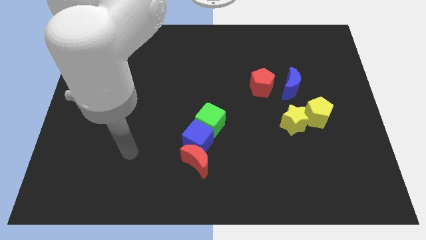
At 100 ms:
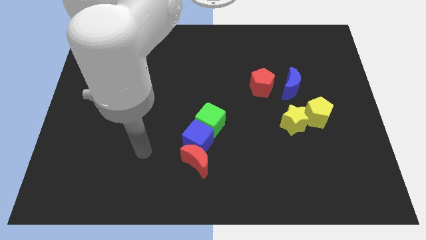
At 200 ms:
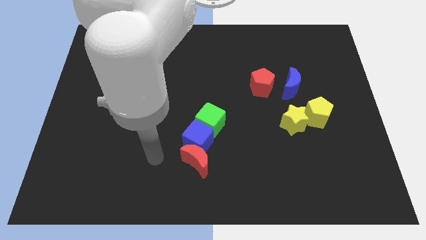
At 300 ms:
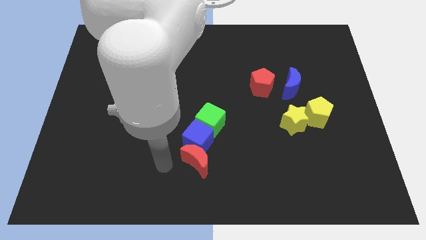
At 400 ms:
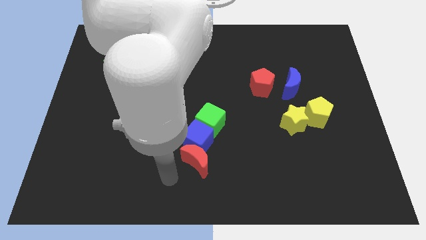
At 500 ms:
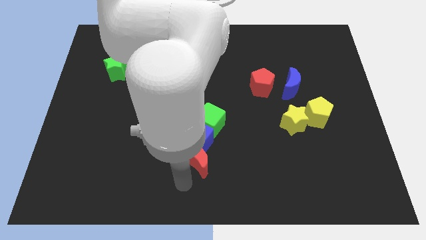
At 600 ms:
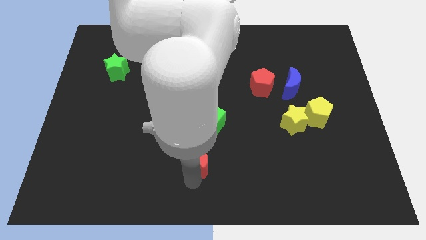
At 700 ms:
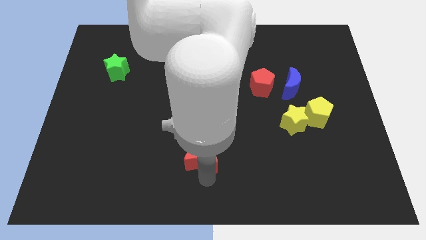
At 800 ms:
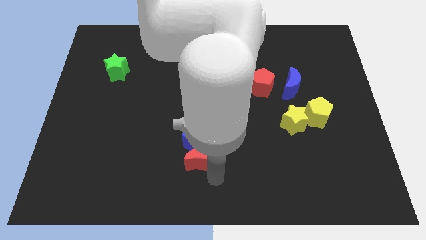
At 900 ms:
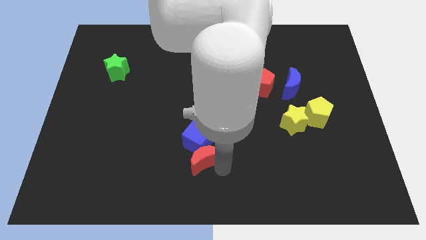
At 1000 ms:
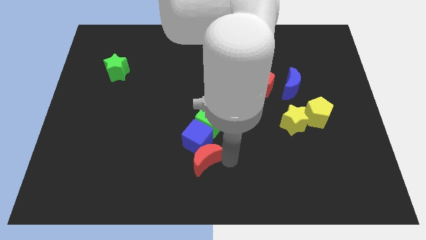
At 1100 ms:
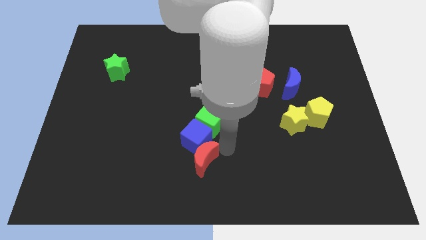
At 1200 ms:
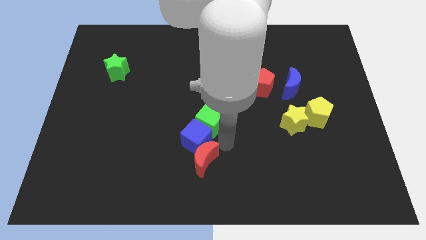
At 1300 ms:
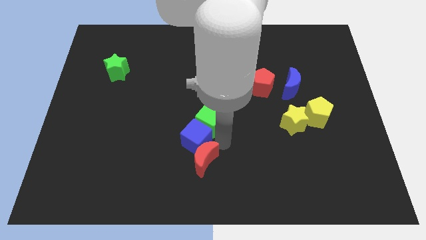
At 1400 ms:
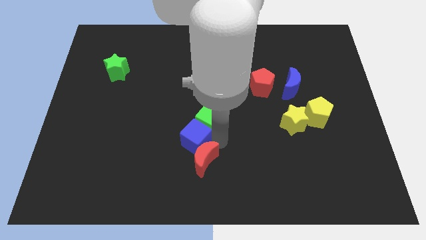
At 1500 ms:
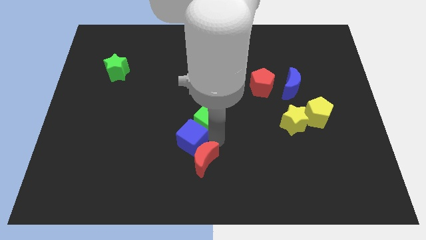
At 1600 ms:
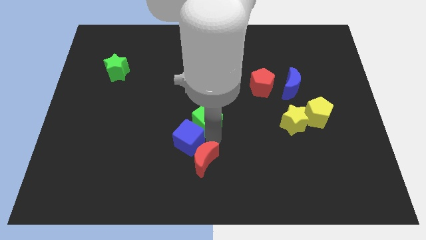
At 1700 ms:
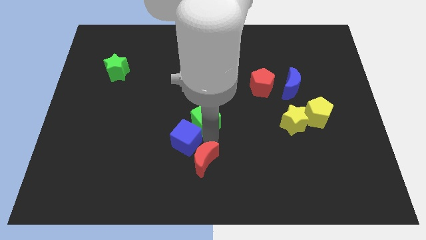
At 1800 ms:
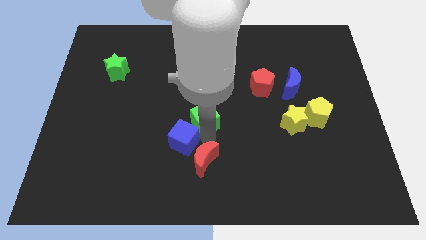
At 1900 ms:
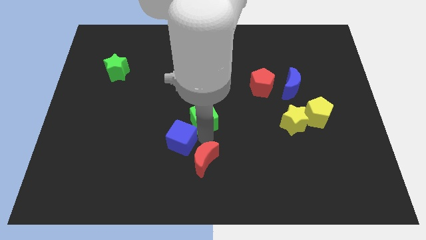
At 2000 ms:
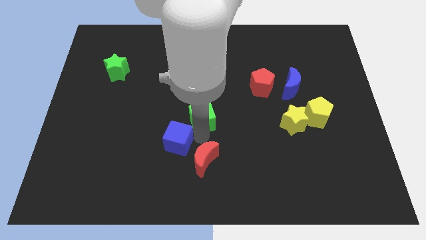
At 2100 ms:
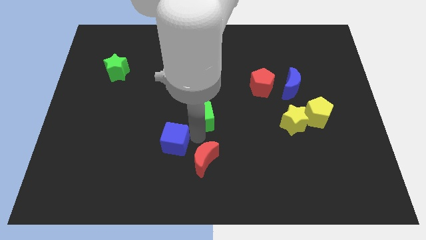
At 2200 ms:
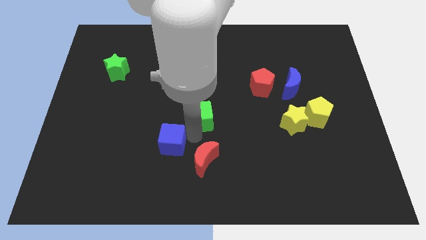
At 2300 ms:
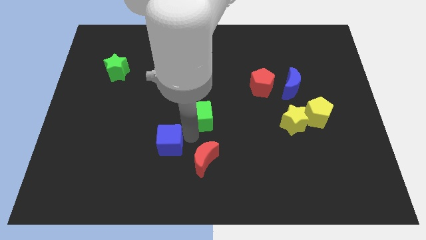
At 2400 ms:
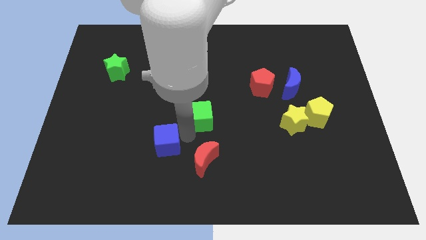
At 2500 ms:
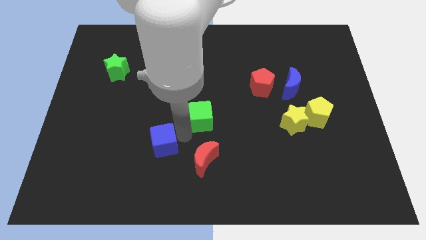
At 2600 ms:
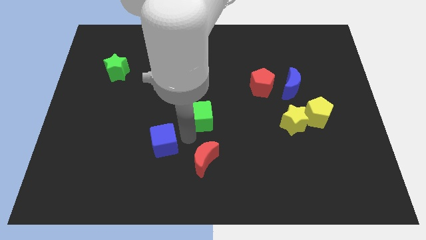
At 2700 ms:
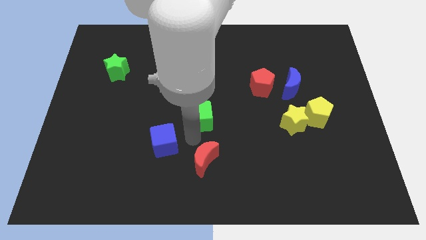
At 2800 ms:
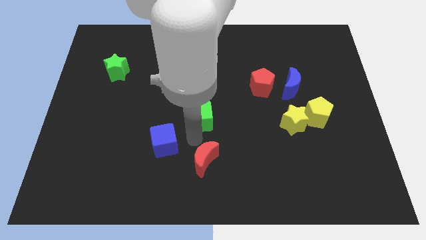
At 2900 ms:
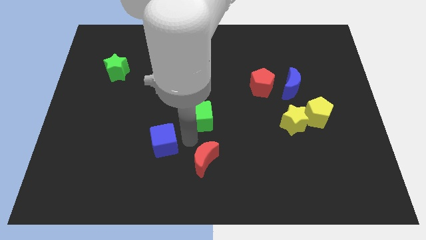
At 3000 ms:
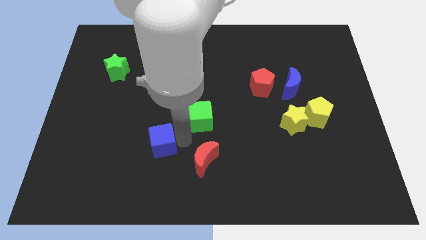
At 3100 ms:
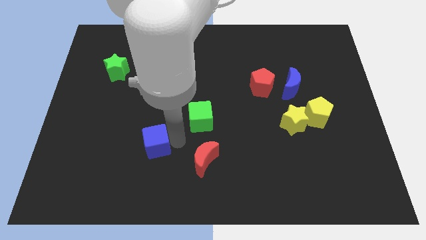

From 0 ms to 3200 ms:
move the blue cube away from the red moon and green cube

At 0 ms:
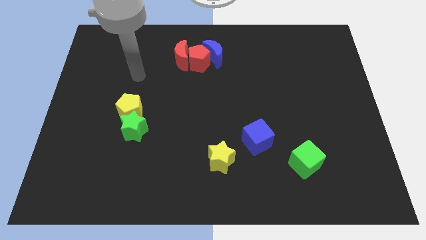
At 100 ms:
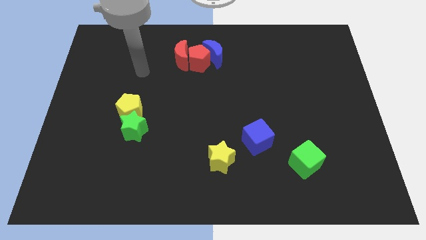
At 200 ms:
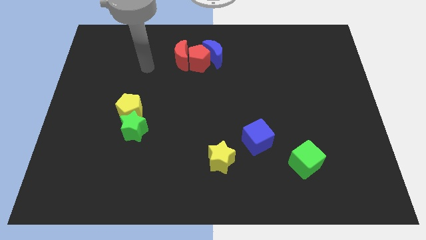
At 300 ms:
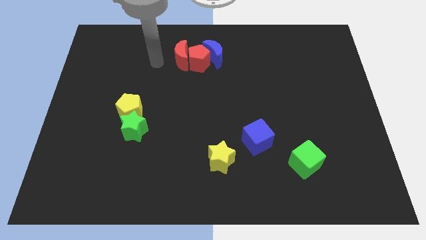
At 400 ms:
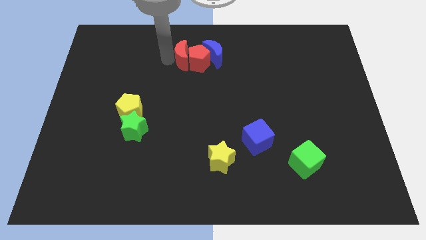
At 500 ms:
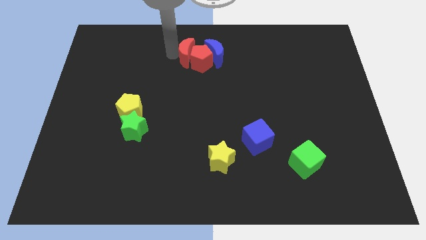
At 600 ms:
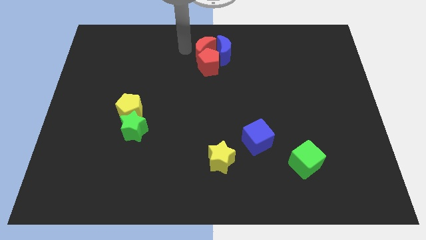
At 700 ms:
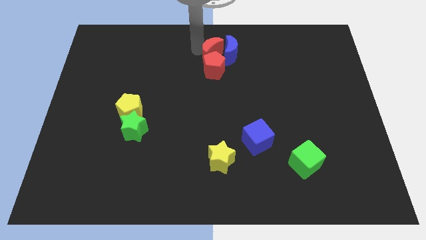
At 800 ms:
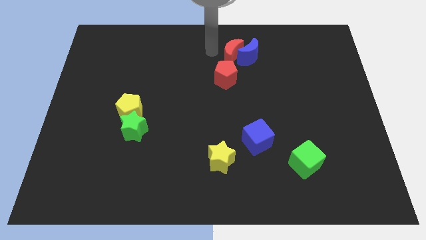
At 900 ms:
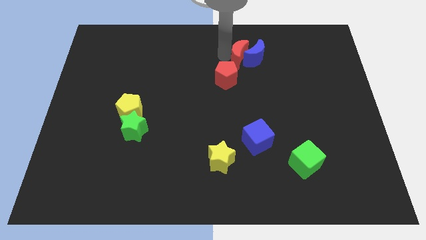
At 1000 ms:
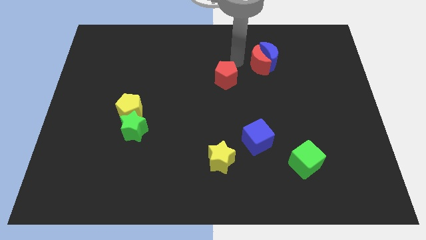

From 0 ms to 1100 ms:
pull the red pentagon apart from the red moon and blue moon

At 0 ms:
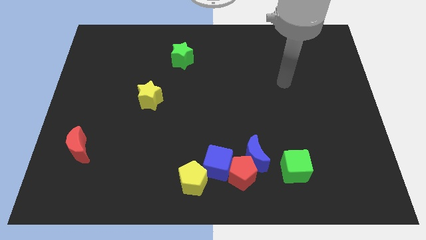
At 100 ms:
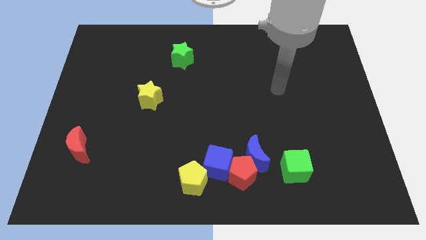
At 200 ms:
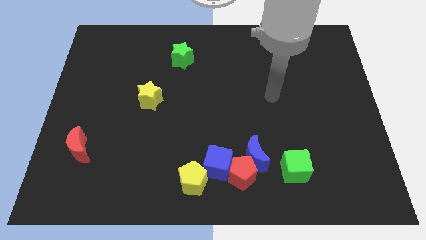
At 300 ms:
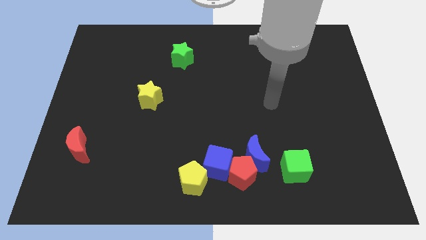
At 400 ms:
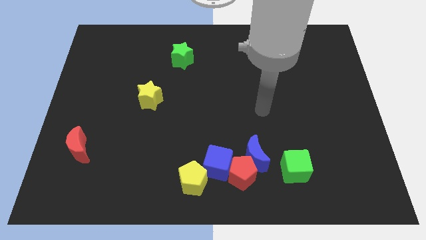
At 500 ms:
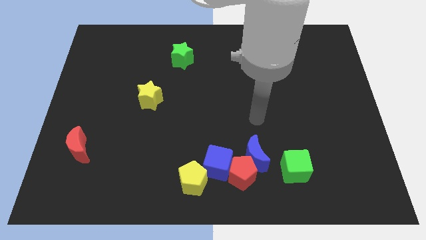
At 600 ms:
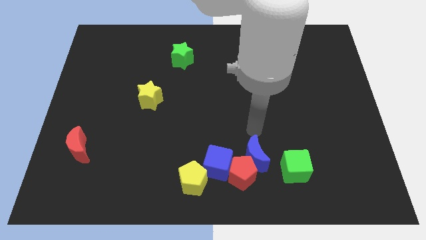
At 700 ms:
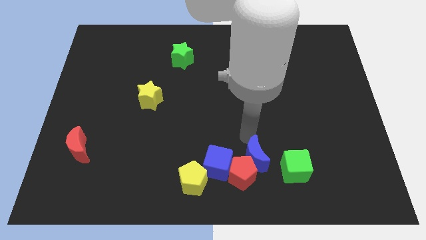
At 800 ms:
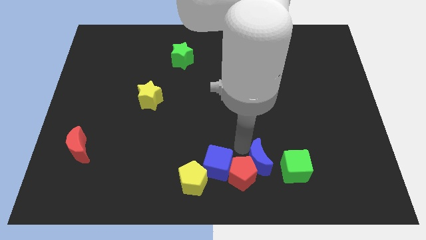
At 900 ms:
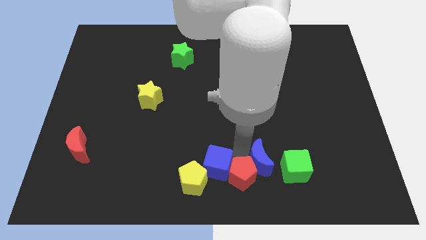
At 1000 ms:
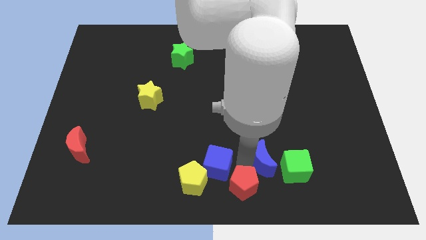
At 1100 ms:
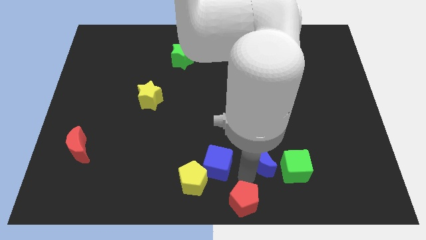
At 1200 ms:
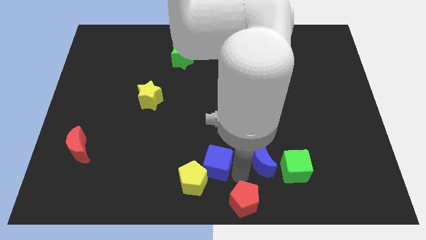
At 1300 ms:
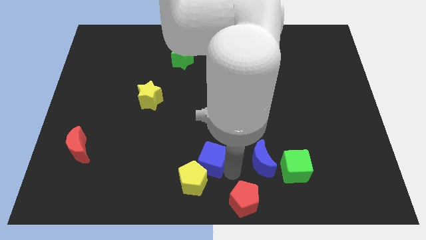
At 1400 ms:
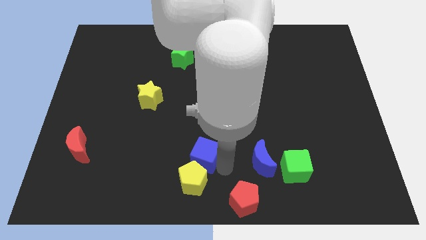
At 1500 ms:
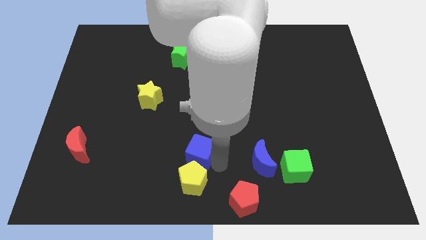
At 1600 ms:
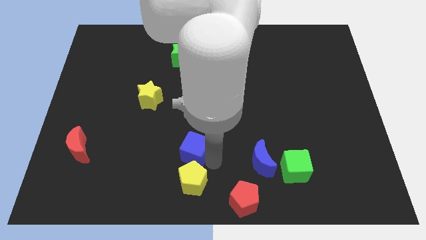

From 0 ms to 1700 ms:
move the blue cube away from the group of blocks

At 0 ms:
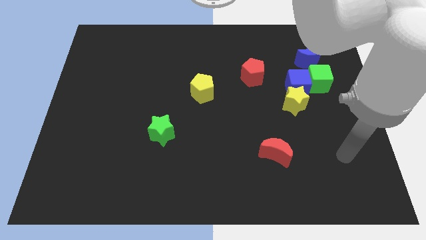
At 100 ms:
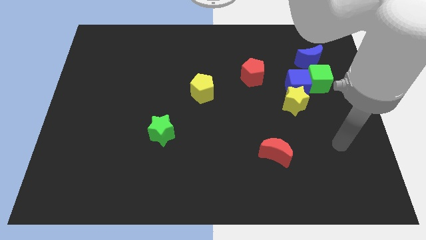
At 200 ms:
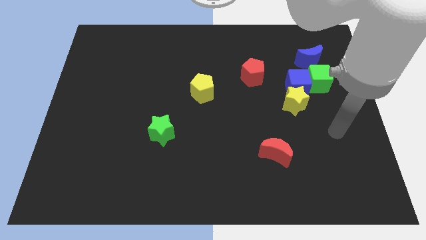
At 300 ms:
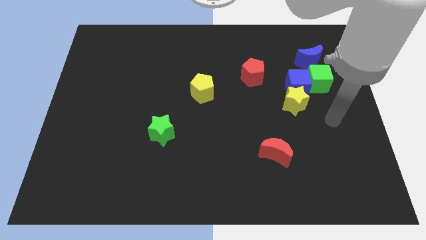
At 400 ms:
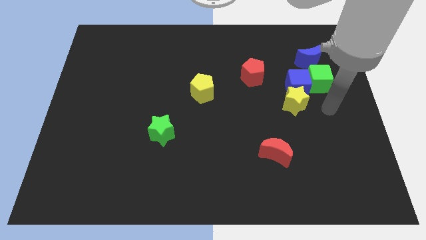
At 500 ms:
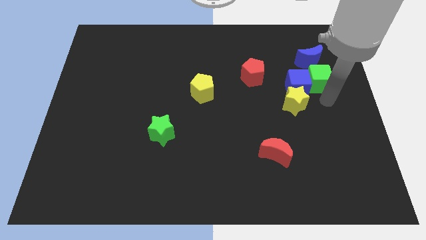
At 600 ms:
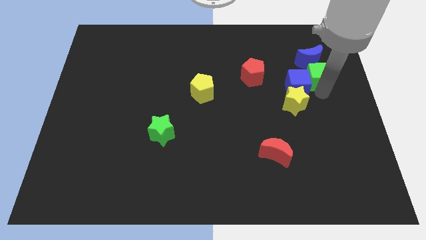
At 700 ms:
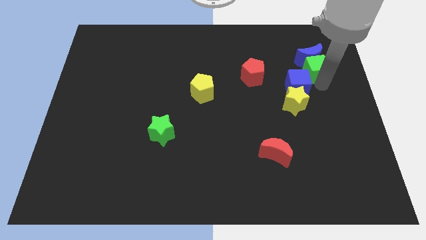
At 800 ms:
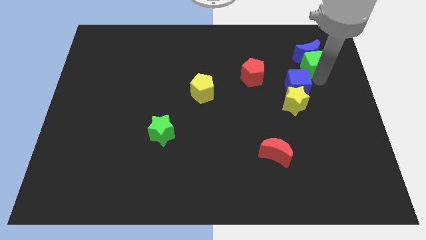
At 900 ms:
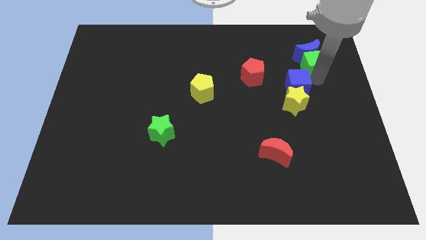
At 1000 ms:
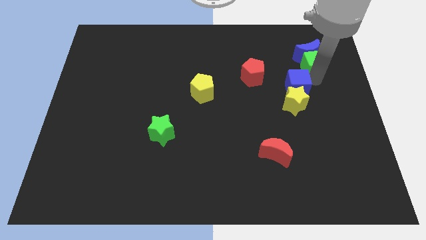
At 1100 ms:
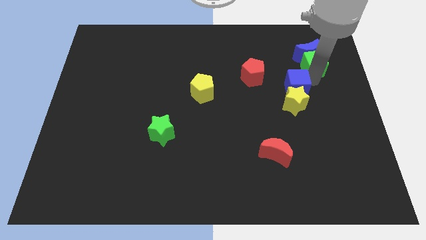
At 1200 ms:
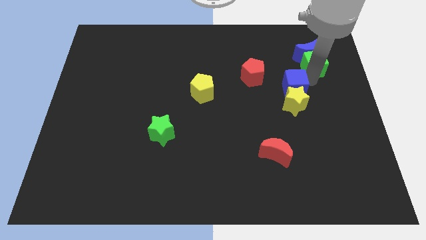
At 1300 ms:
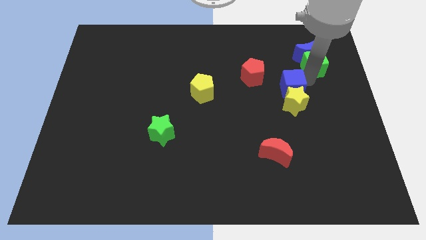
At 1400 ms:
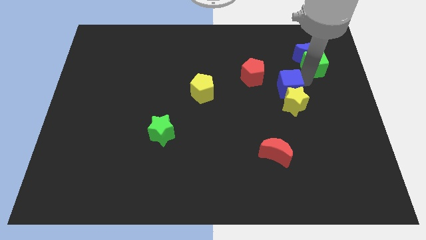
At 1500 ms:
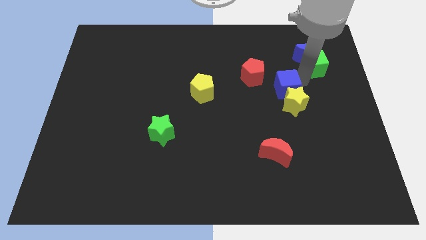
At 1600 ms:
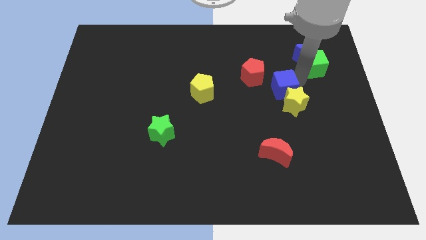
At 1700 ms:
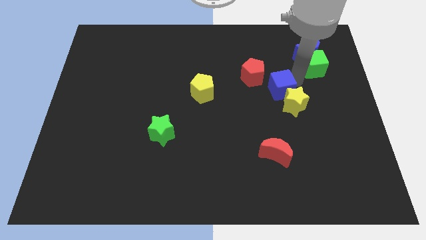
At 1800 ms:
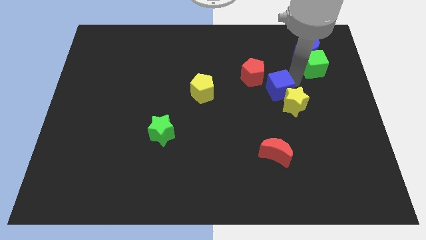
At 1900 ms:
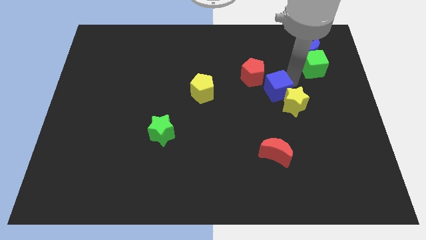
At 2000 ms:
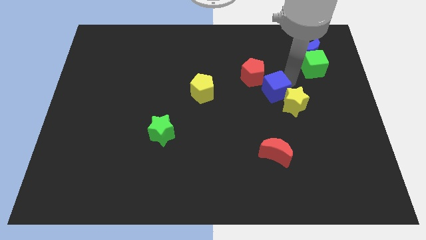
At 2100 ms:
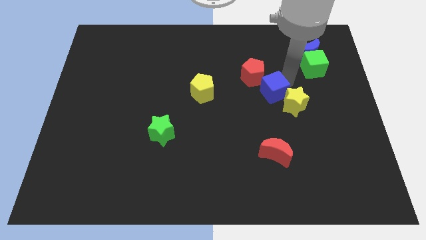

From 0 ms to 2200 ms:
move the blue cube away from the yellow star, green cube, and blue moon

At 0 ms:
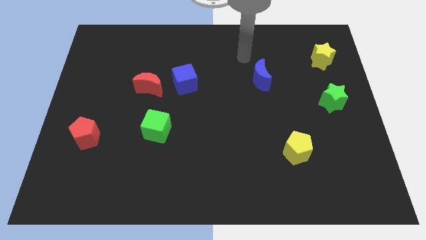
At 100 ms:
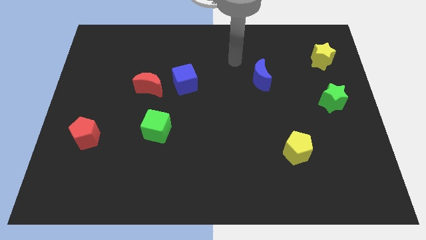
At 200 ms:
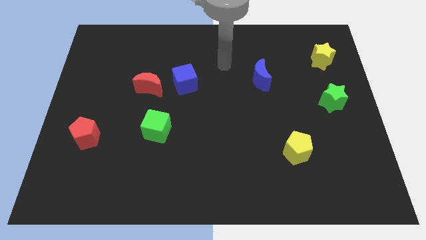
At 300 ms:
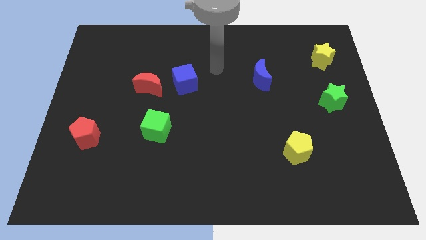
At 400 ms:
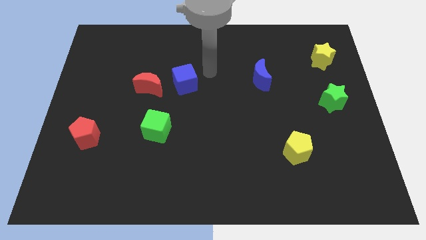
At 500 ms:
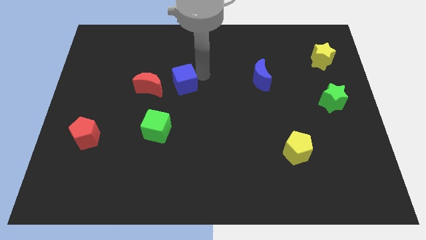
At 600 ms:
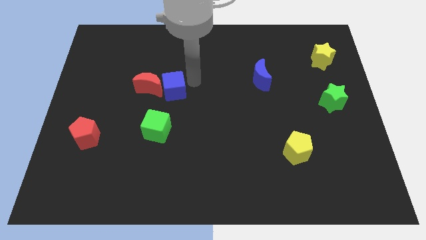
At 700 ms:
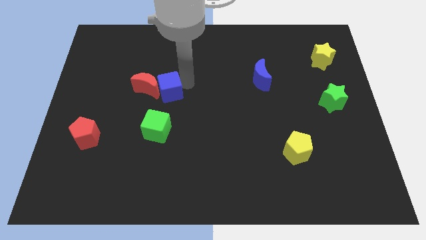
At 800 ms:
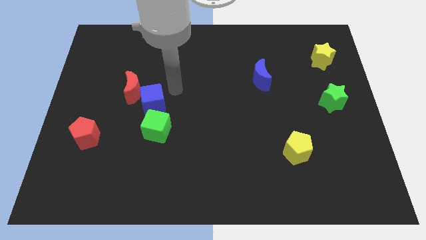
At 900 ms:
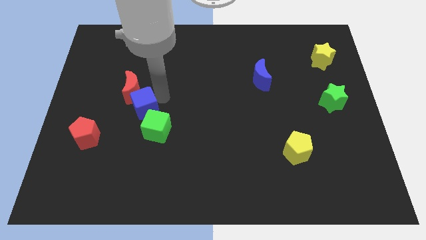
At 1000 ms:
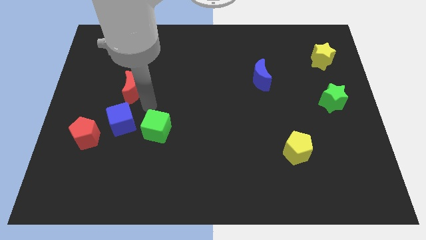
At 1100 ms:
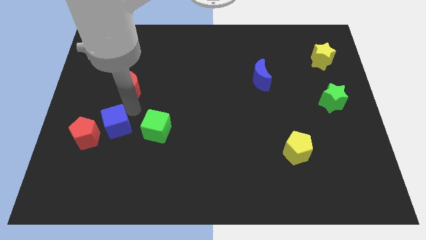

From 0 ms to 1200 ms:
separate the red moon from the blue cube

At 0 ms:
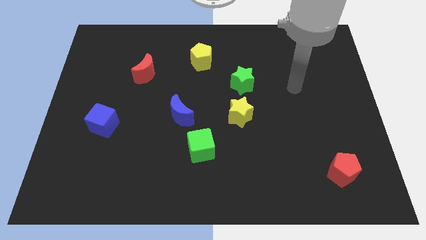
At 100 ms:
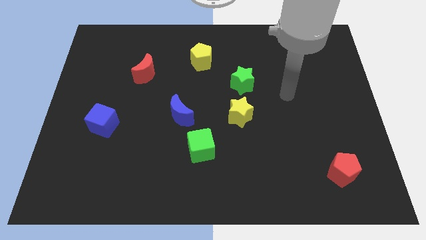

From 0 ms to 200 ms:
separate the green star from the yellow star
